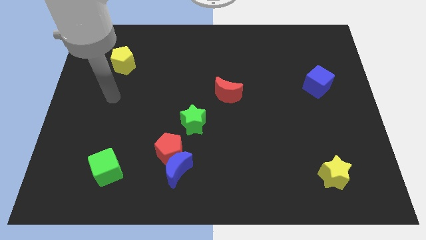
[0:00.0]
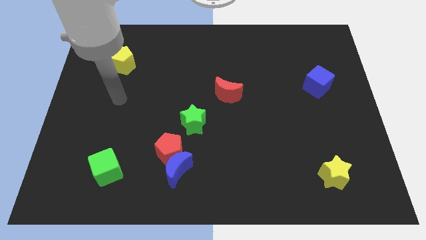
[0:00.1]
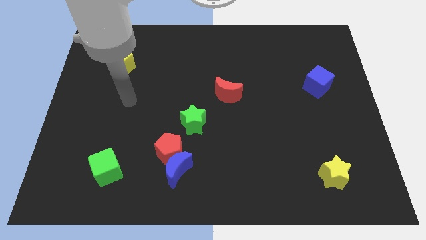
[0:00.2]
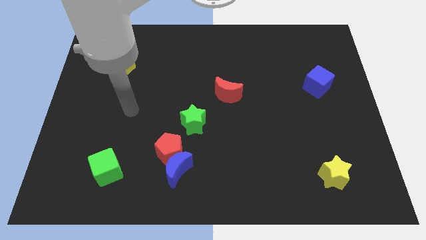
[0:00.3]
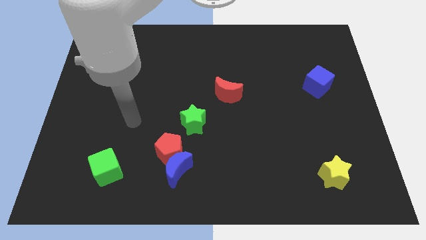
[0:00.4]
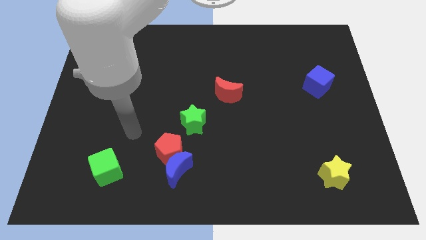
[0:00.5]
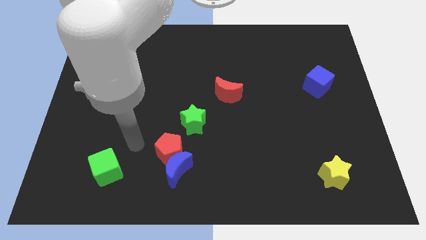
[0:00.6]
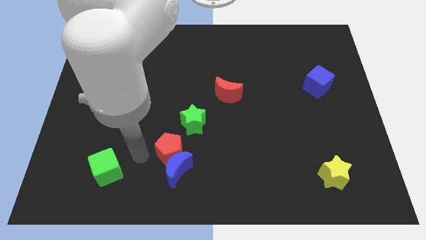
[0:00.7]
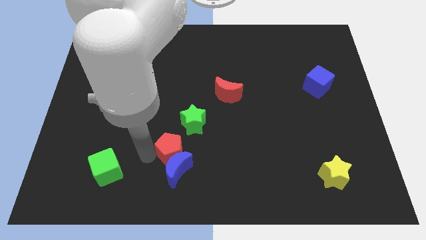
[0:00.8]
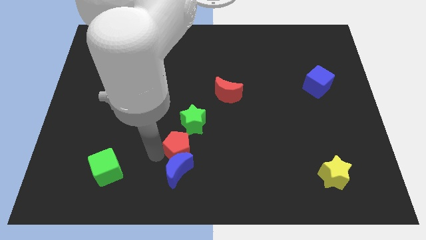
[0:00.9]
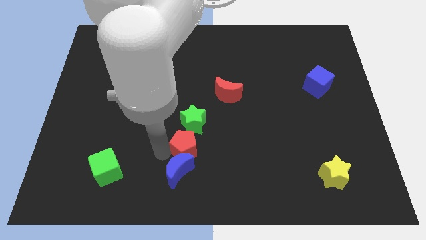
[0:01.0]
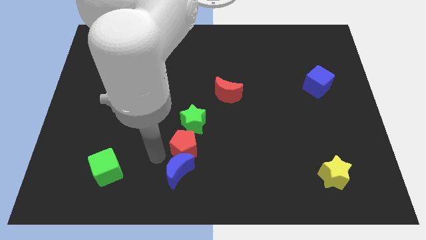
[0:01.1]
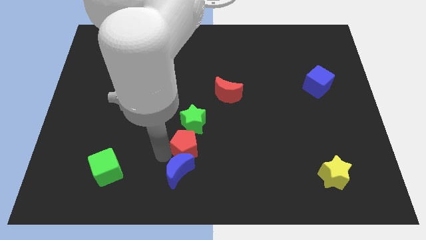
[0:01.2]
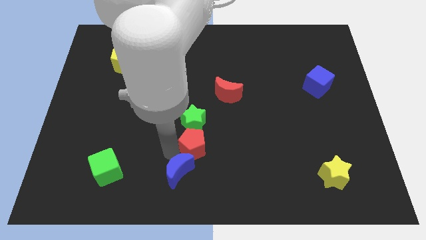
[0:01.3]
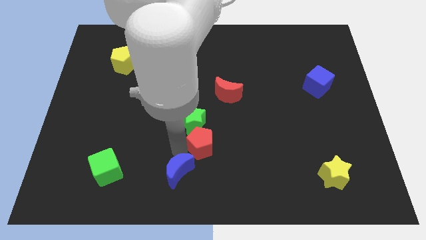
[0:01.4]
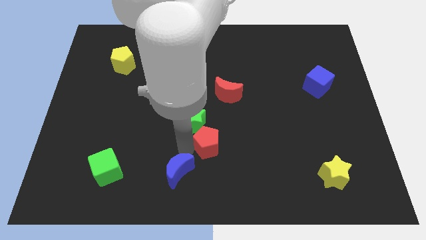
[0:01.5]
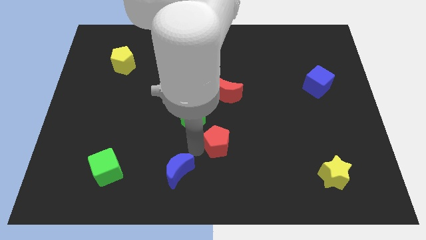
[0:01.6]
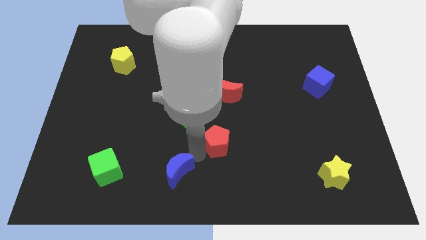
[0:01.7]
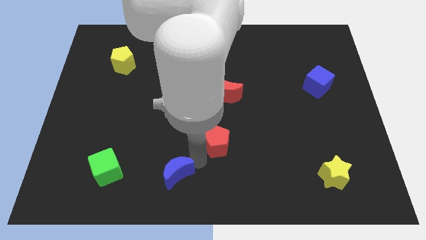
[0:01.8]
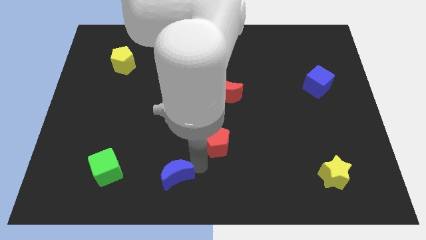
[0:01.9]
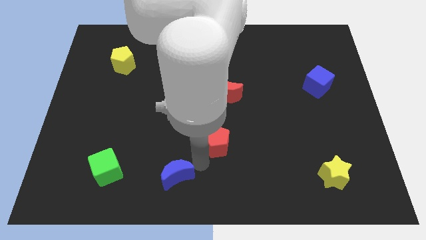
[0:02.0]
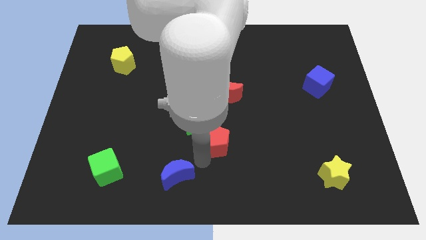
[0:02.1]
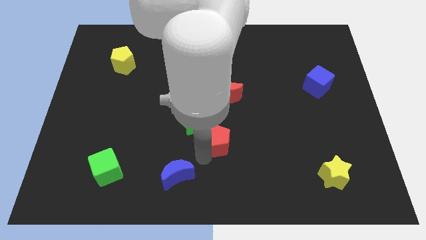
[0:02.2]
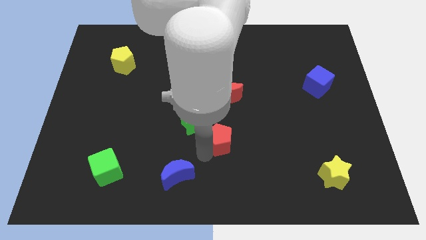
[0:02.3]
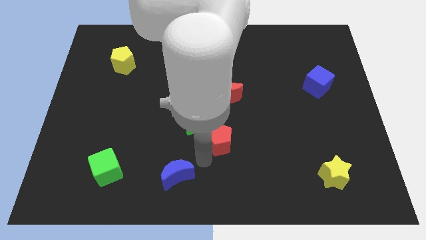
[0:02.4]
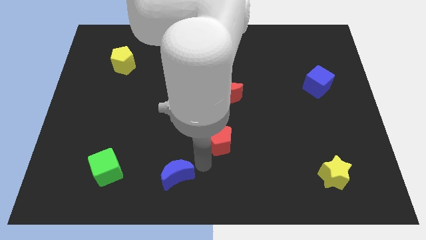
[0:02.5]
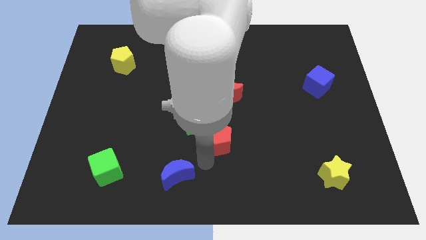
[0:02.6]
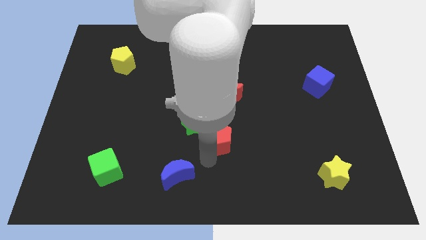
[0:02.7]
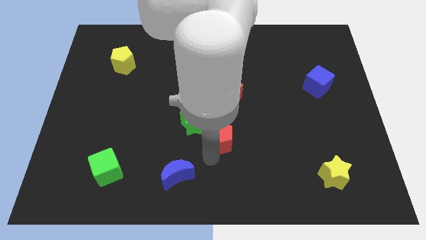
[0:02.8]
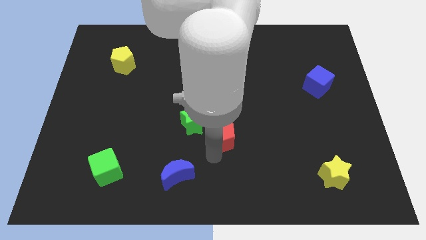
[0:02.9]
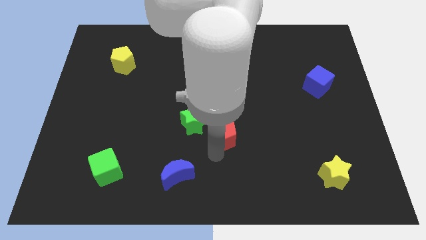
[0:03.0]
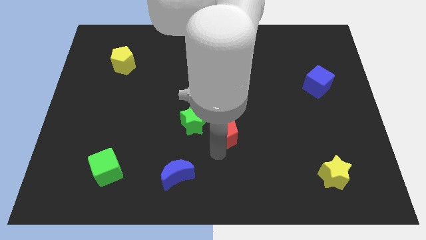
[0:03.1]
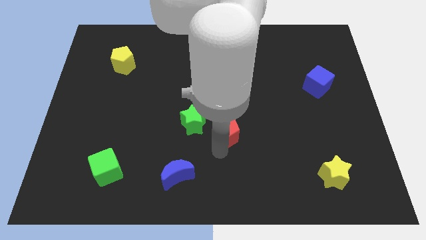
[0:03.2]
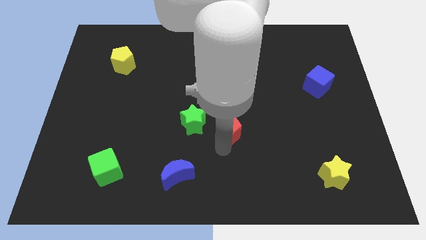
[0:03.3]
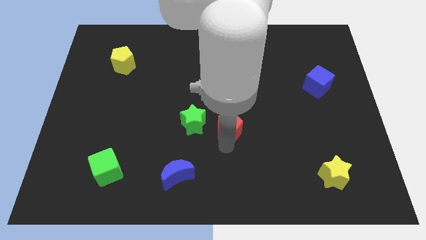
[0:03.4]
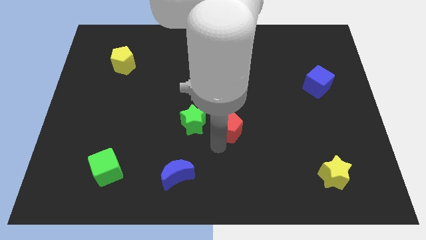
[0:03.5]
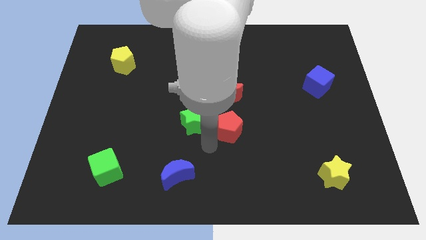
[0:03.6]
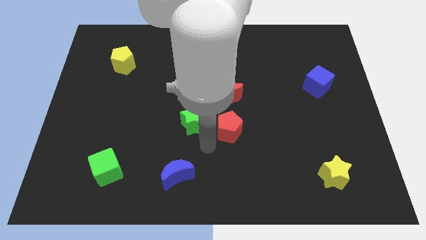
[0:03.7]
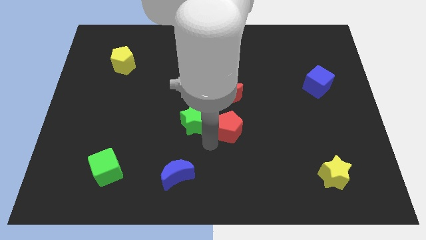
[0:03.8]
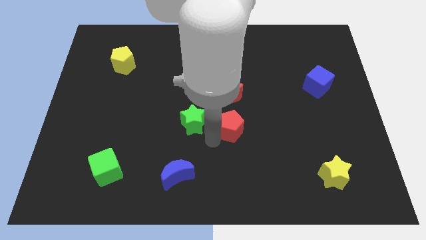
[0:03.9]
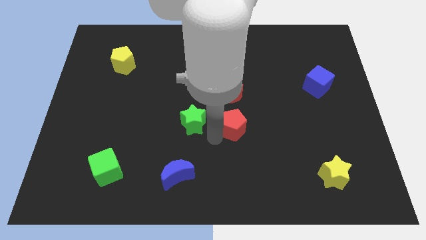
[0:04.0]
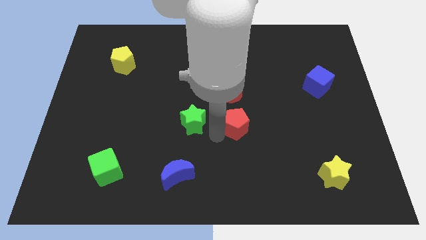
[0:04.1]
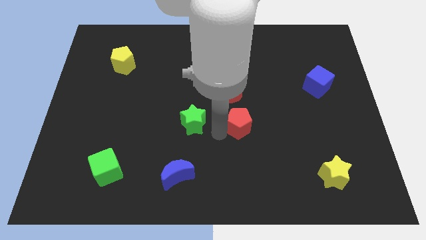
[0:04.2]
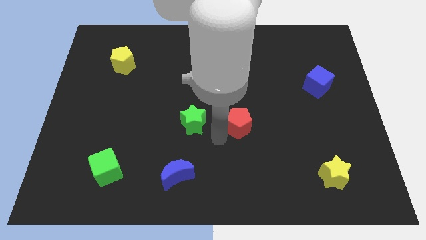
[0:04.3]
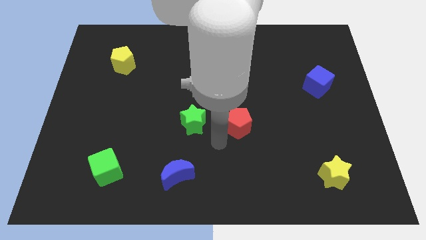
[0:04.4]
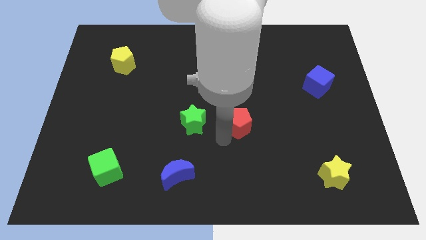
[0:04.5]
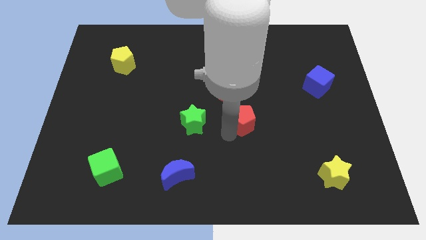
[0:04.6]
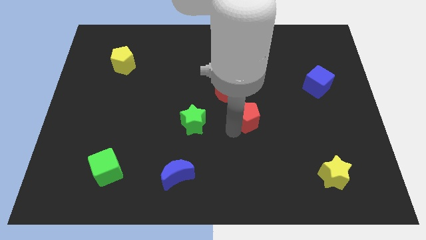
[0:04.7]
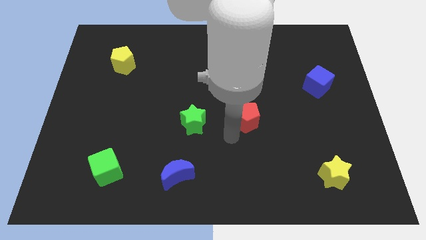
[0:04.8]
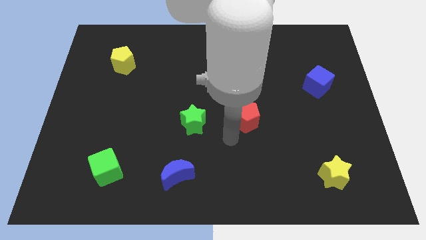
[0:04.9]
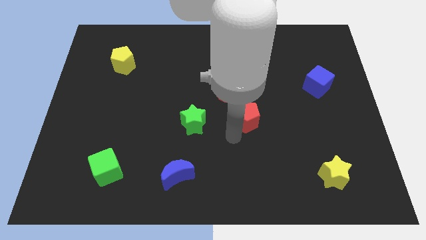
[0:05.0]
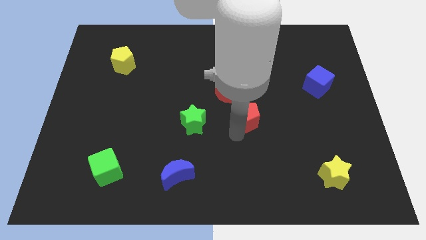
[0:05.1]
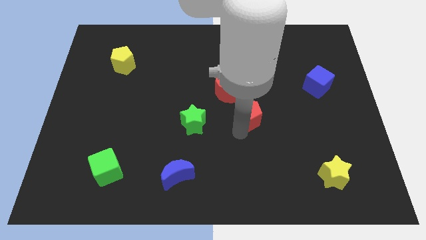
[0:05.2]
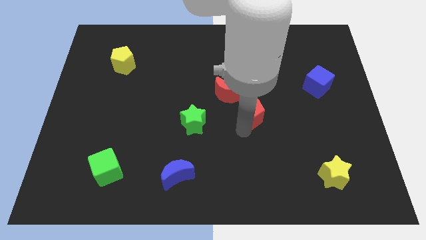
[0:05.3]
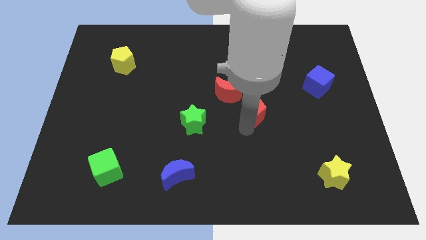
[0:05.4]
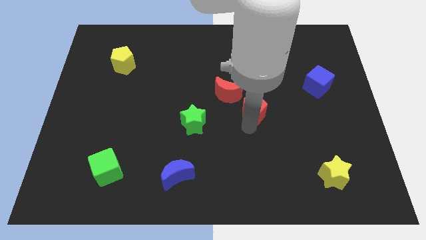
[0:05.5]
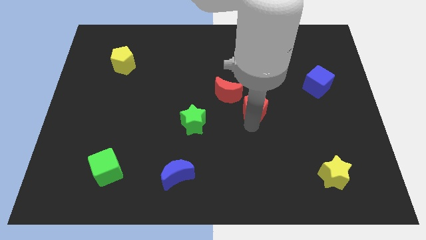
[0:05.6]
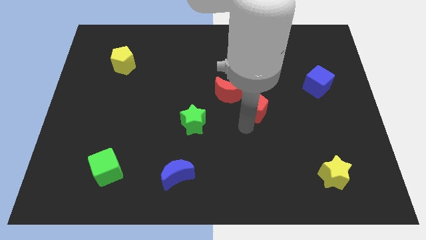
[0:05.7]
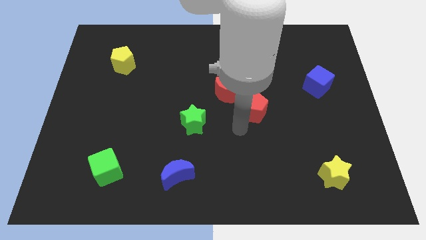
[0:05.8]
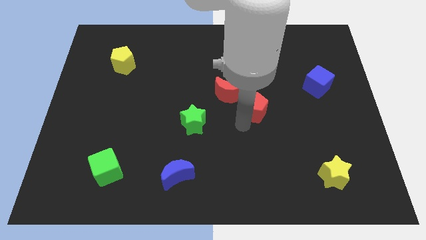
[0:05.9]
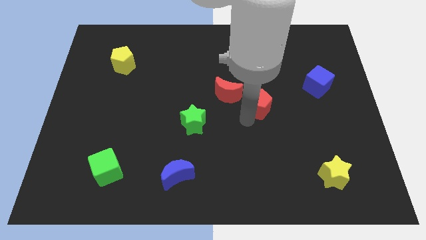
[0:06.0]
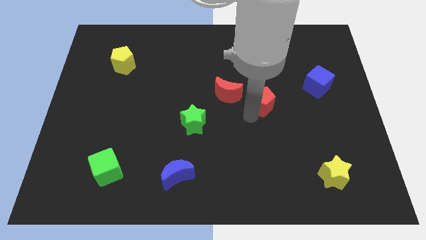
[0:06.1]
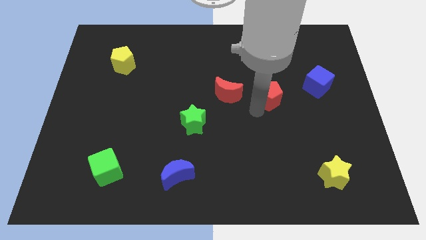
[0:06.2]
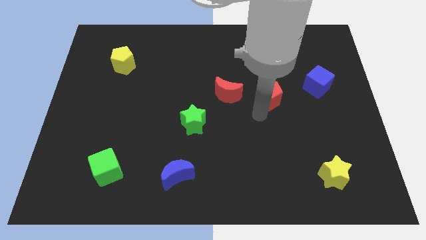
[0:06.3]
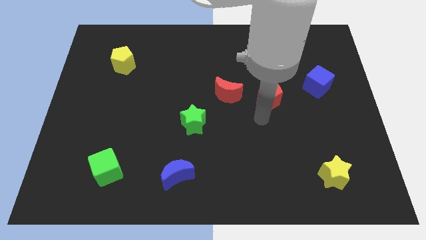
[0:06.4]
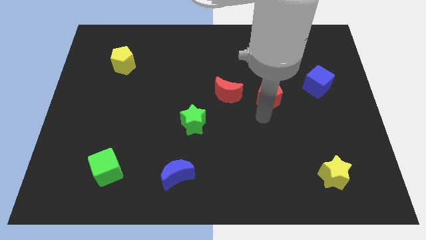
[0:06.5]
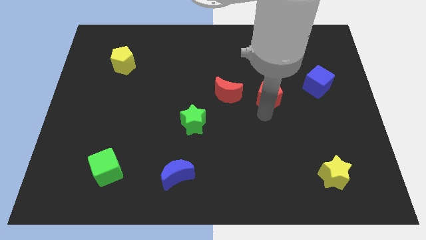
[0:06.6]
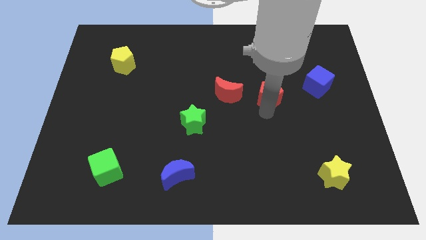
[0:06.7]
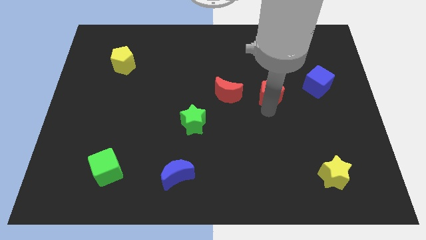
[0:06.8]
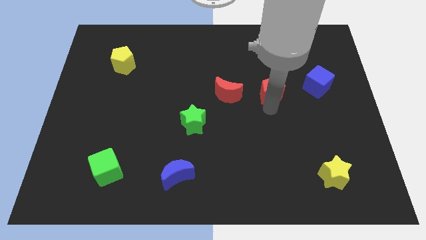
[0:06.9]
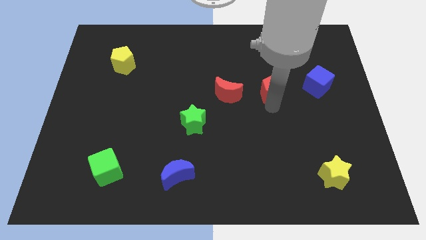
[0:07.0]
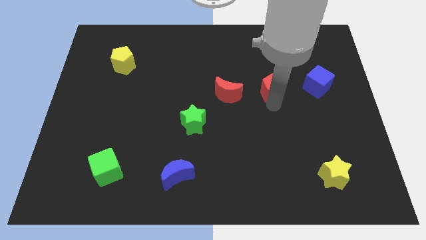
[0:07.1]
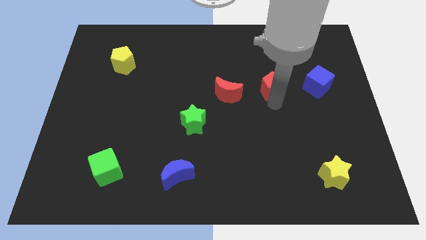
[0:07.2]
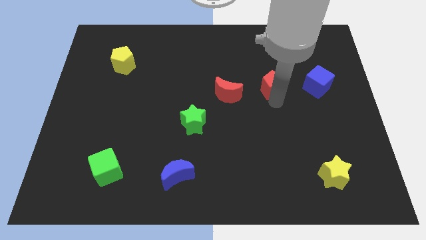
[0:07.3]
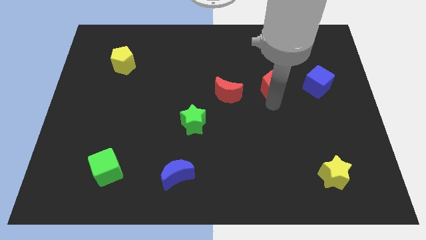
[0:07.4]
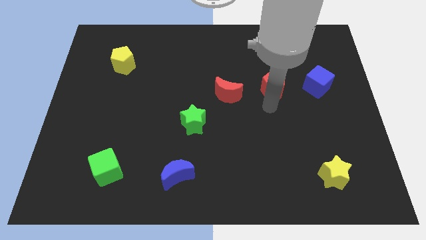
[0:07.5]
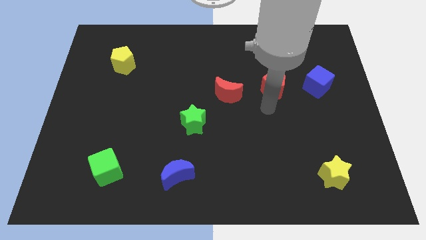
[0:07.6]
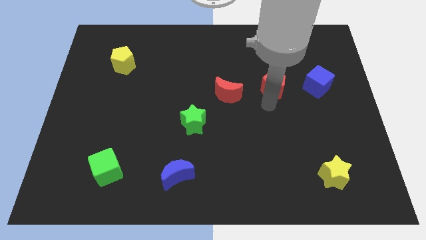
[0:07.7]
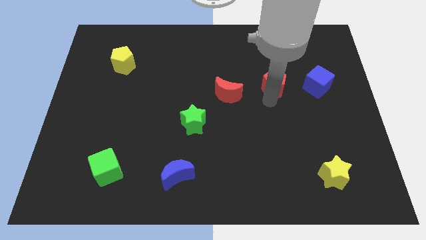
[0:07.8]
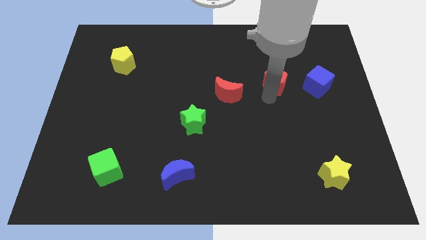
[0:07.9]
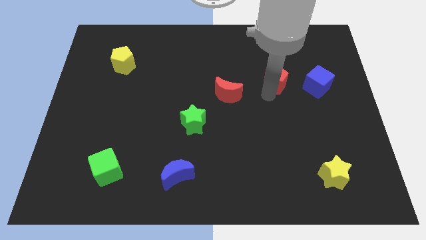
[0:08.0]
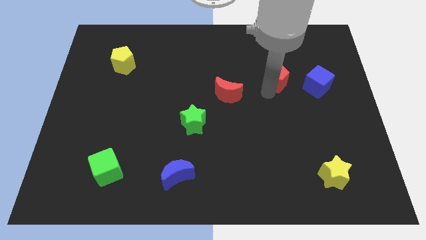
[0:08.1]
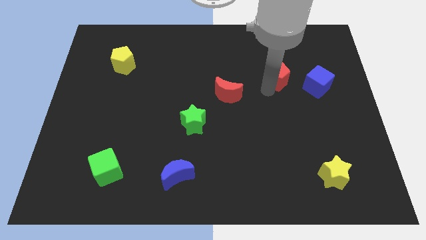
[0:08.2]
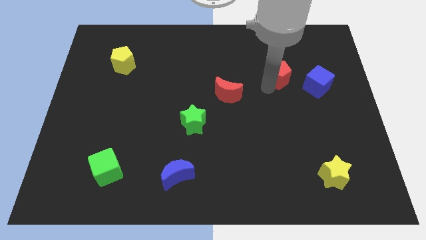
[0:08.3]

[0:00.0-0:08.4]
push the red pentagon to the top left side of the blue cube
